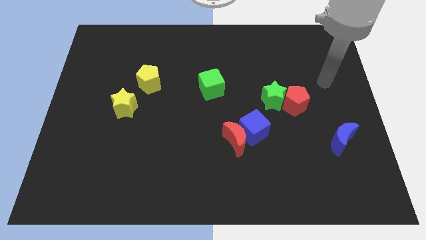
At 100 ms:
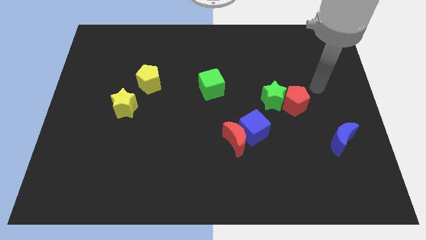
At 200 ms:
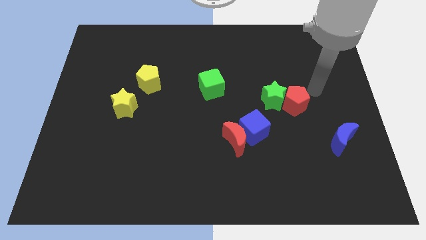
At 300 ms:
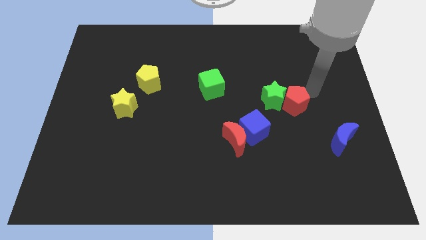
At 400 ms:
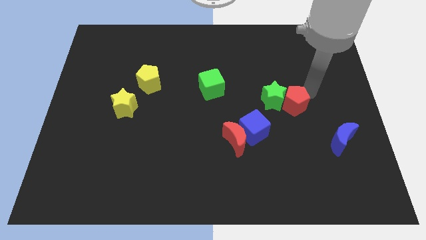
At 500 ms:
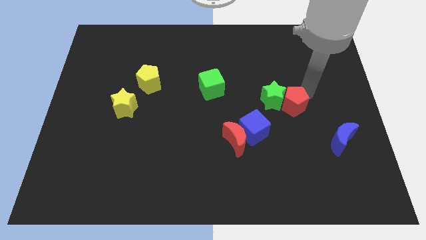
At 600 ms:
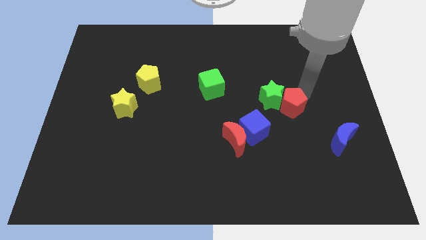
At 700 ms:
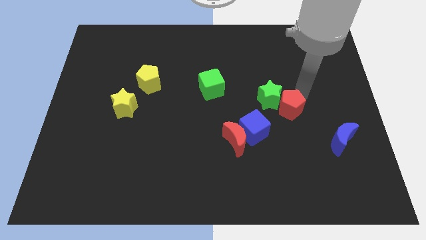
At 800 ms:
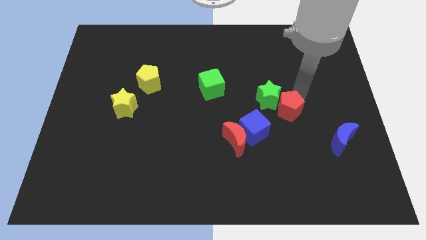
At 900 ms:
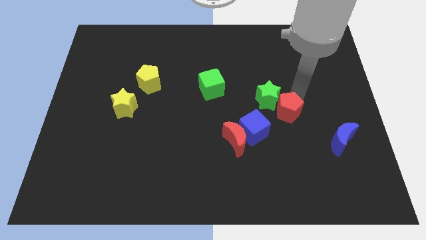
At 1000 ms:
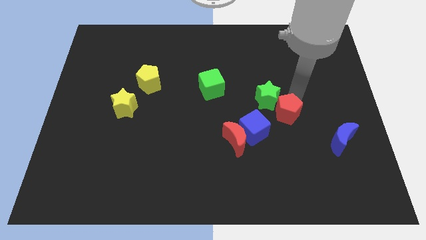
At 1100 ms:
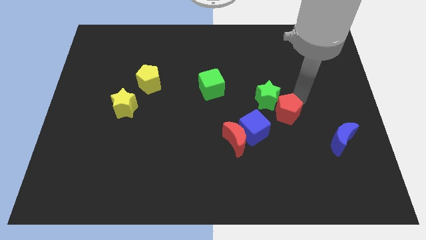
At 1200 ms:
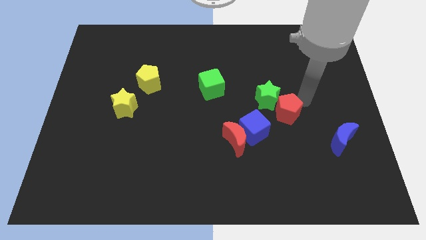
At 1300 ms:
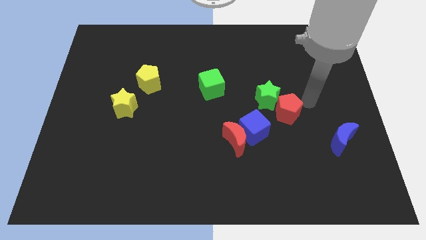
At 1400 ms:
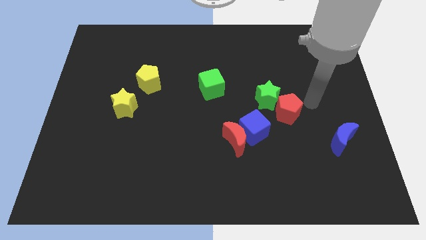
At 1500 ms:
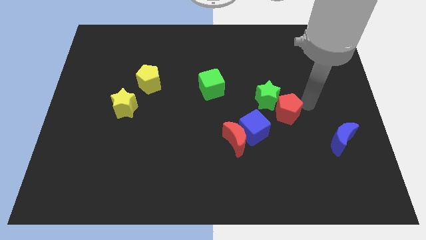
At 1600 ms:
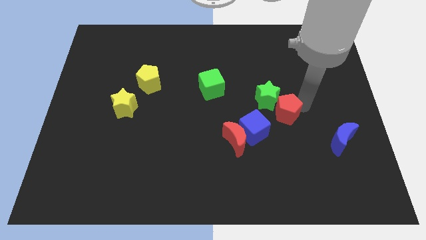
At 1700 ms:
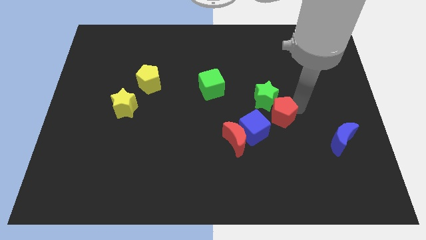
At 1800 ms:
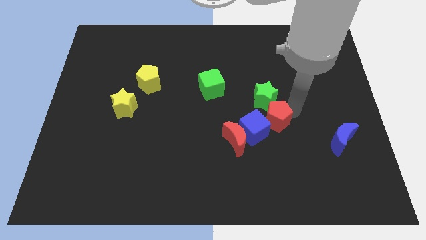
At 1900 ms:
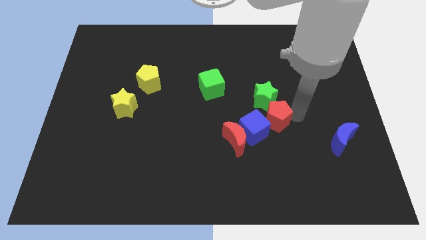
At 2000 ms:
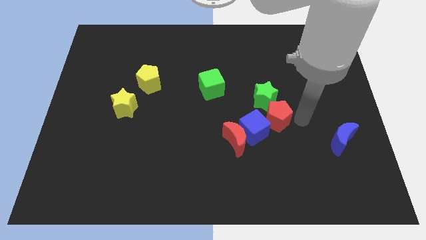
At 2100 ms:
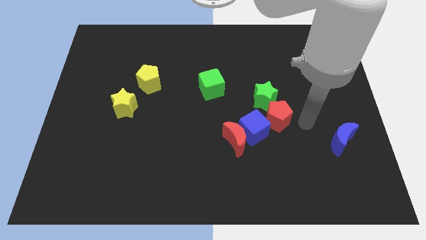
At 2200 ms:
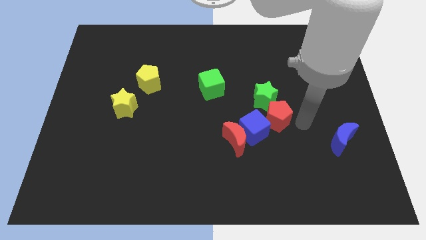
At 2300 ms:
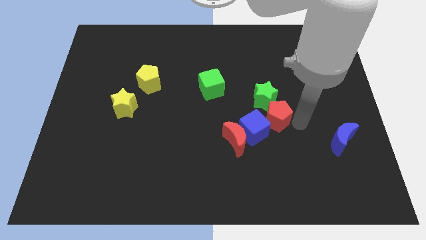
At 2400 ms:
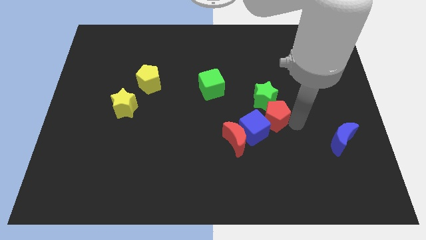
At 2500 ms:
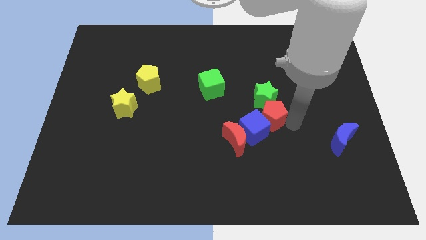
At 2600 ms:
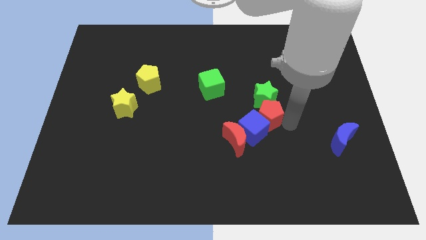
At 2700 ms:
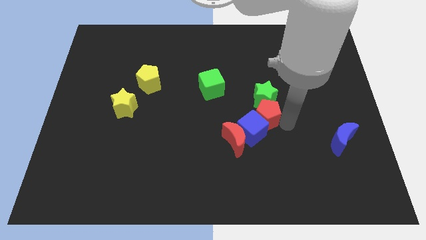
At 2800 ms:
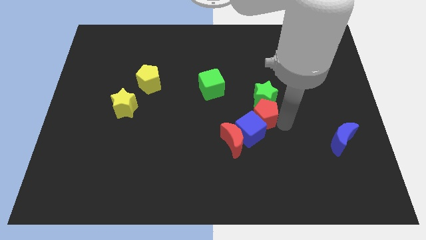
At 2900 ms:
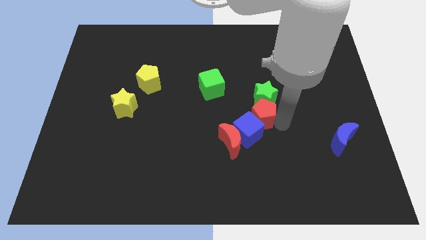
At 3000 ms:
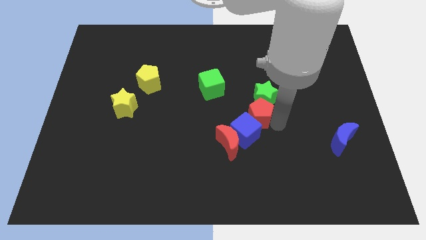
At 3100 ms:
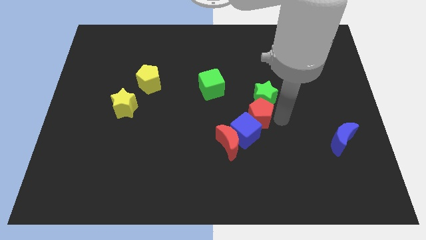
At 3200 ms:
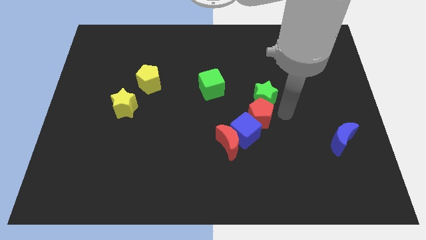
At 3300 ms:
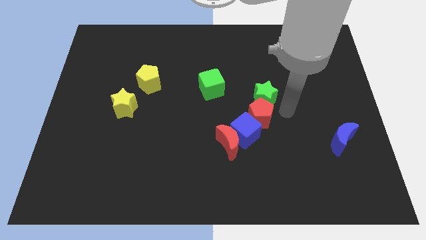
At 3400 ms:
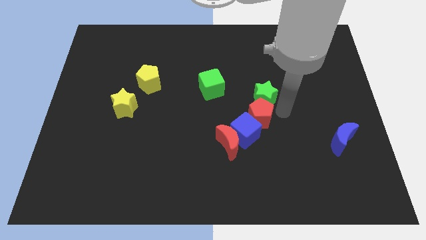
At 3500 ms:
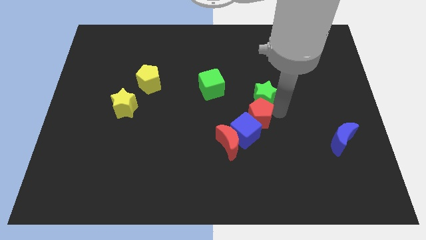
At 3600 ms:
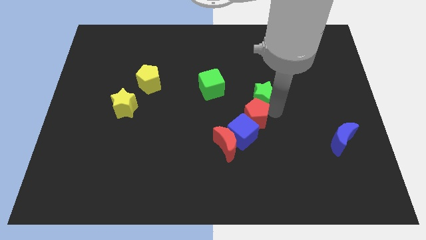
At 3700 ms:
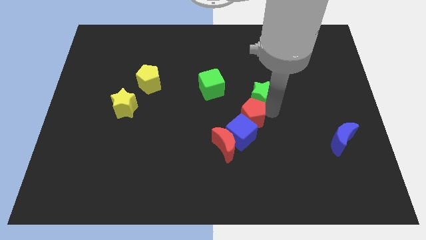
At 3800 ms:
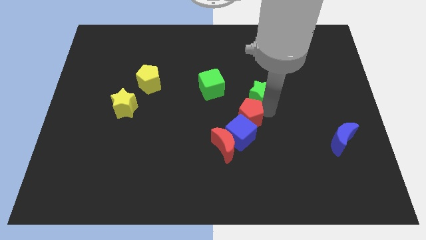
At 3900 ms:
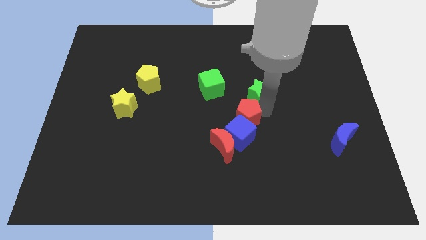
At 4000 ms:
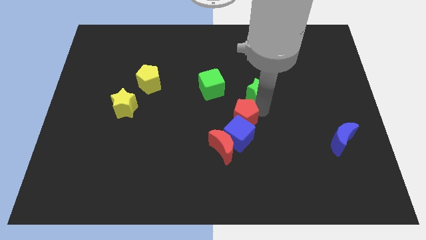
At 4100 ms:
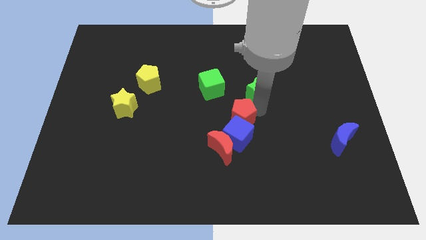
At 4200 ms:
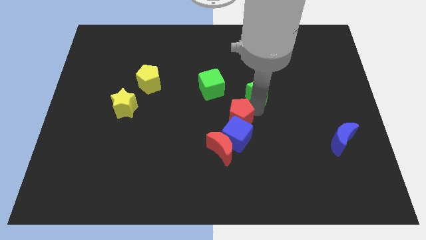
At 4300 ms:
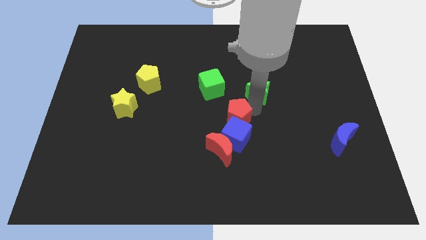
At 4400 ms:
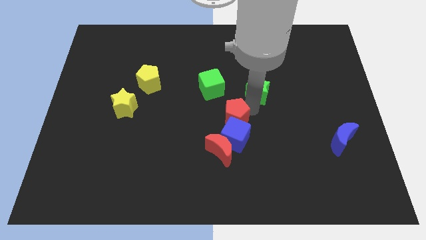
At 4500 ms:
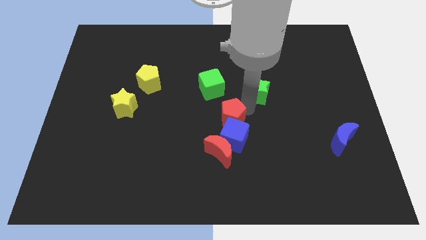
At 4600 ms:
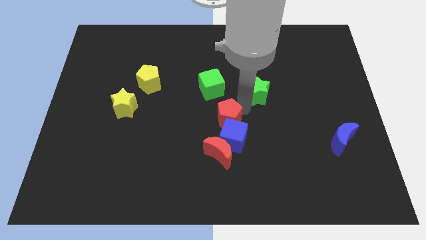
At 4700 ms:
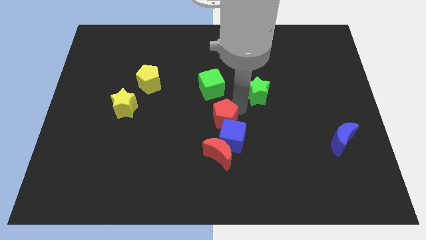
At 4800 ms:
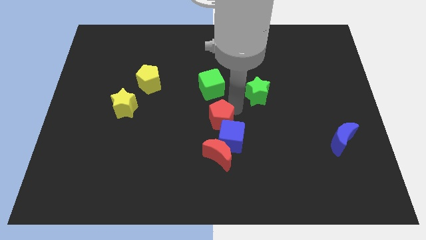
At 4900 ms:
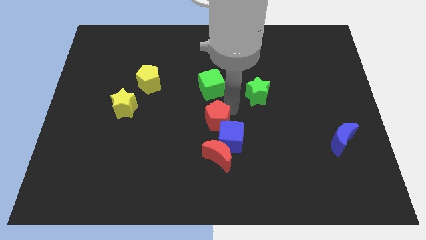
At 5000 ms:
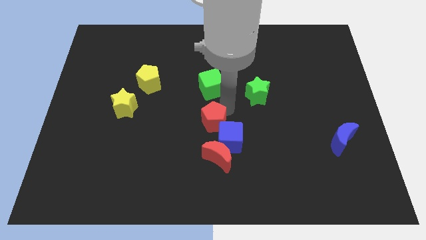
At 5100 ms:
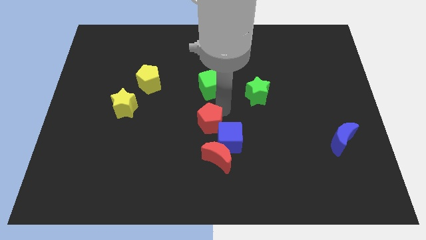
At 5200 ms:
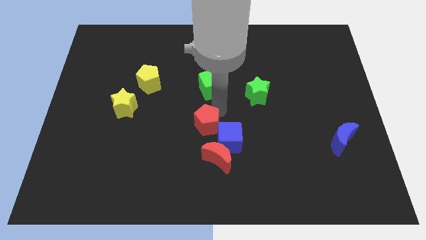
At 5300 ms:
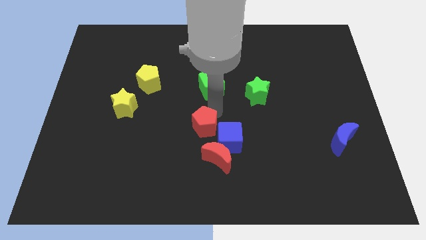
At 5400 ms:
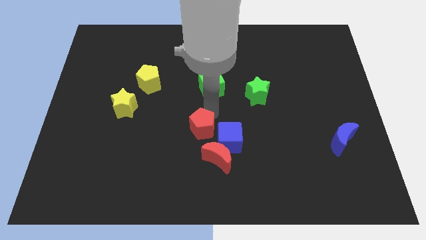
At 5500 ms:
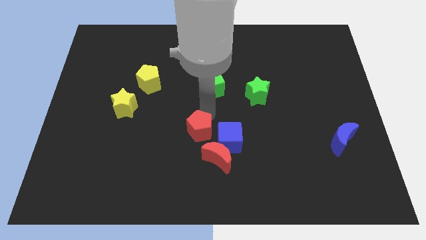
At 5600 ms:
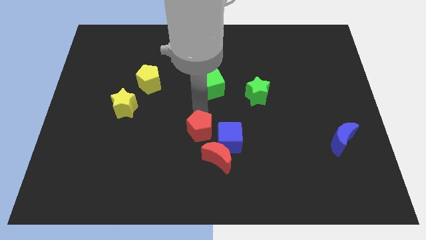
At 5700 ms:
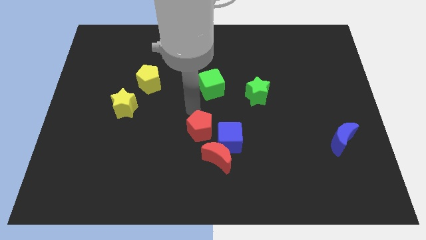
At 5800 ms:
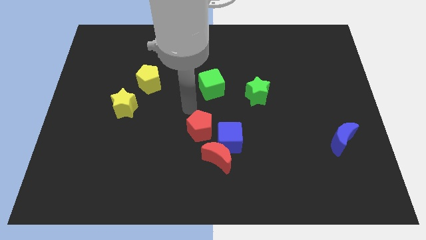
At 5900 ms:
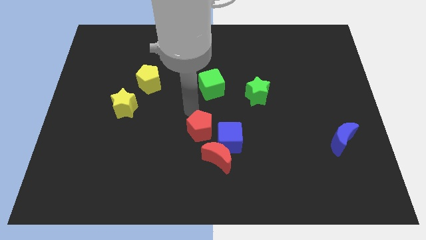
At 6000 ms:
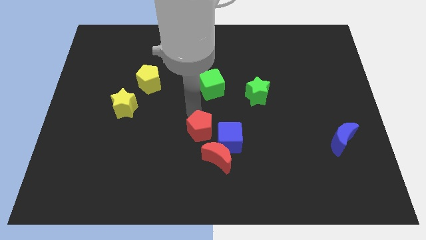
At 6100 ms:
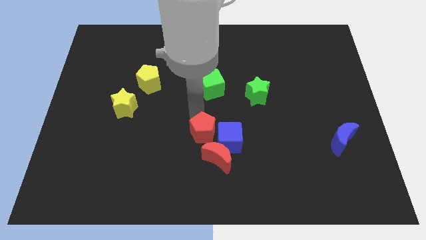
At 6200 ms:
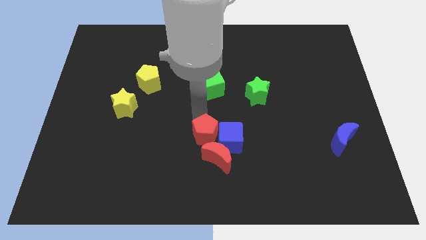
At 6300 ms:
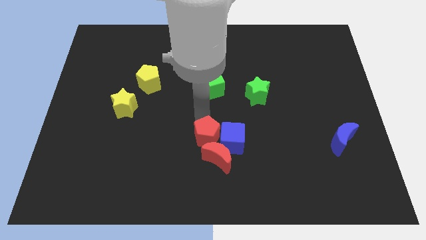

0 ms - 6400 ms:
put the red pentagon towards the red moon

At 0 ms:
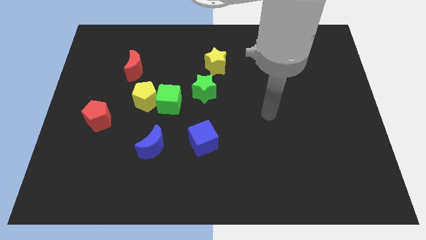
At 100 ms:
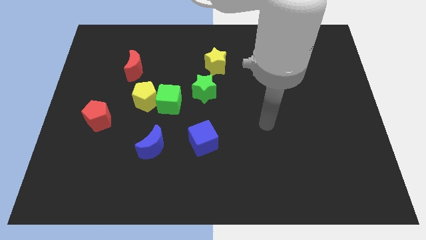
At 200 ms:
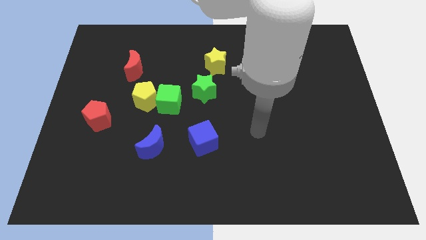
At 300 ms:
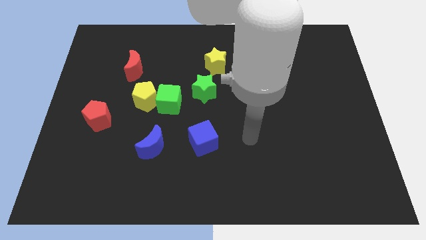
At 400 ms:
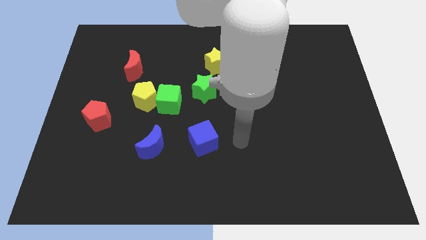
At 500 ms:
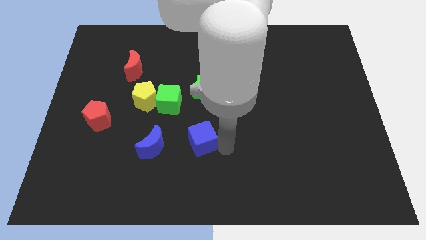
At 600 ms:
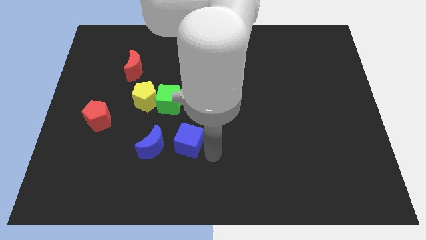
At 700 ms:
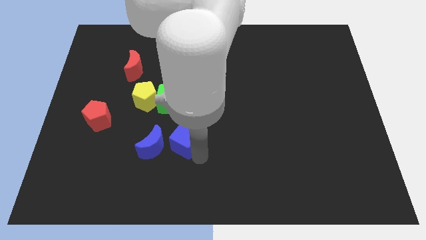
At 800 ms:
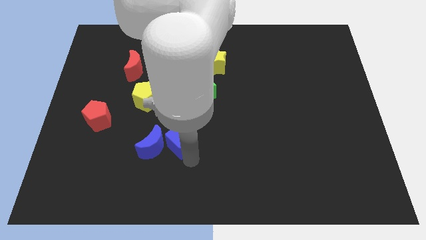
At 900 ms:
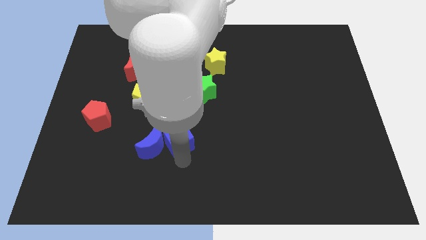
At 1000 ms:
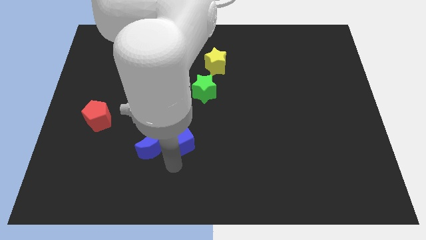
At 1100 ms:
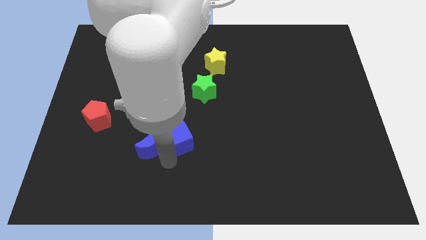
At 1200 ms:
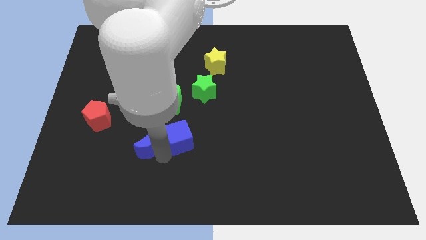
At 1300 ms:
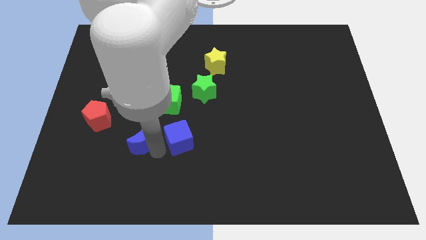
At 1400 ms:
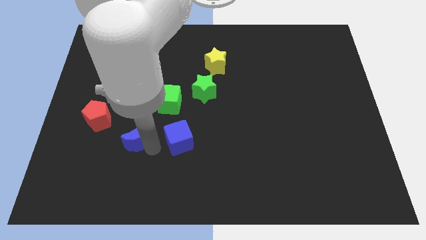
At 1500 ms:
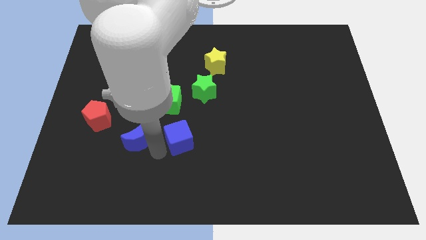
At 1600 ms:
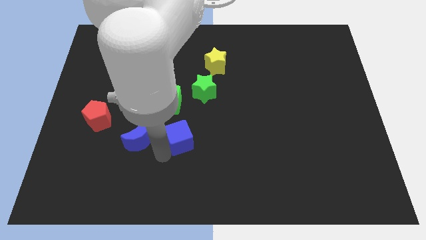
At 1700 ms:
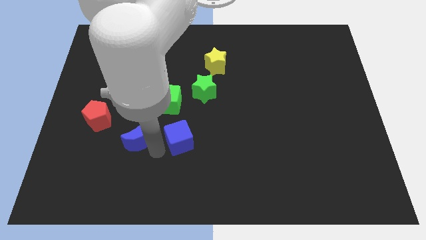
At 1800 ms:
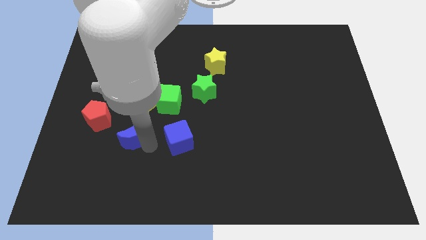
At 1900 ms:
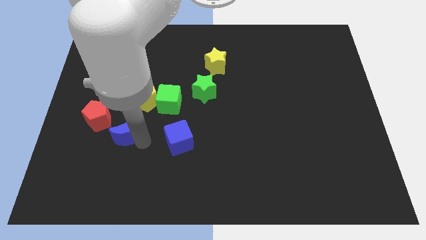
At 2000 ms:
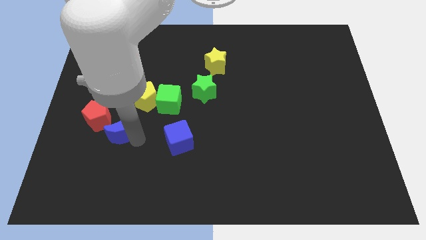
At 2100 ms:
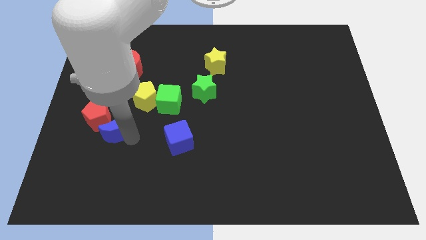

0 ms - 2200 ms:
push the blue moon towards the red pentagon
